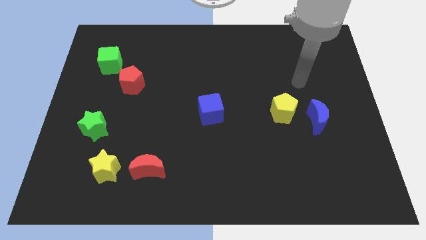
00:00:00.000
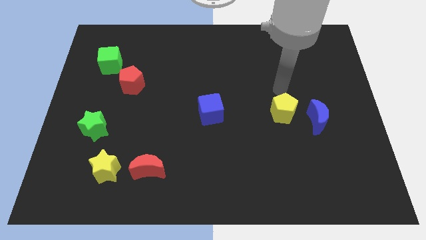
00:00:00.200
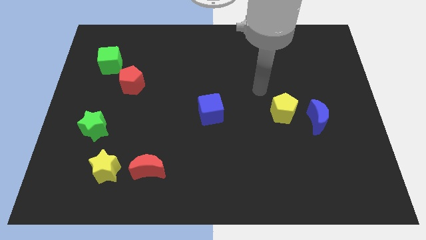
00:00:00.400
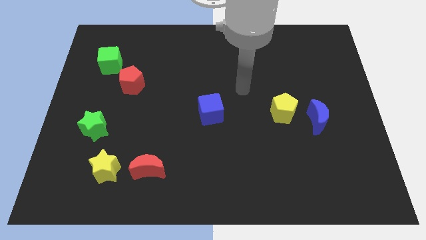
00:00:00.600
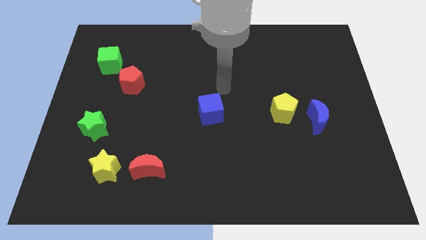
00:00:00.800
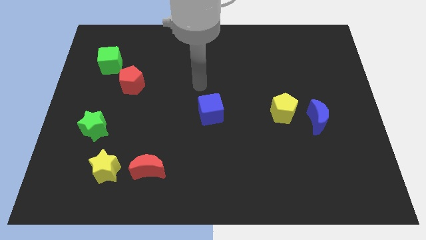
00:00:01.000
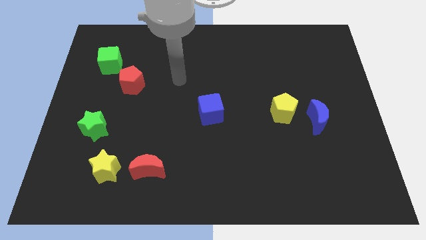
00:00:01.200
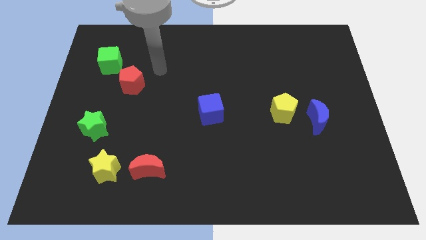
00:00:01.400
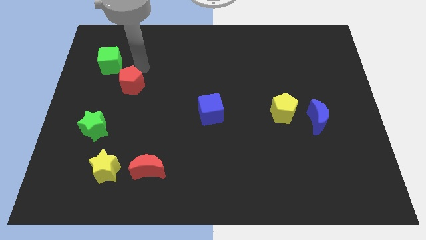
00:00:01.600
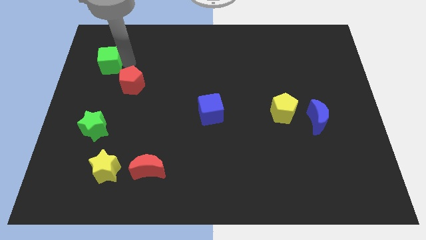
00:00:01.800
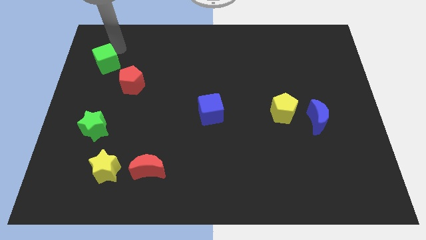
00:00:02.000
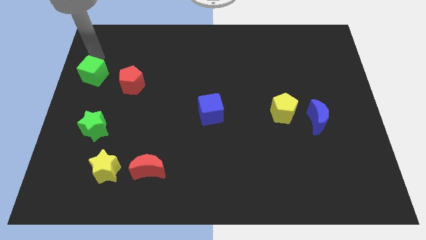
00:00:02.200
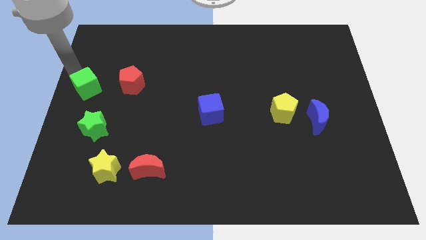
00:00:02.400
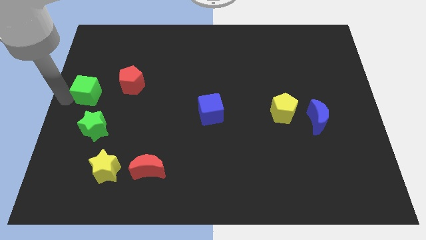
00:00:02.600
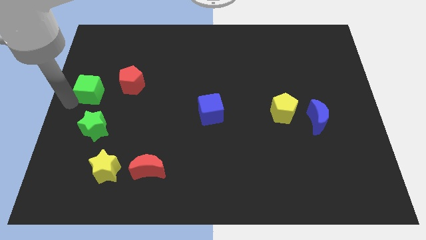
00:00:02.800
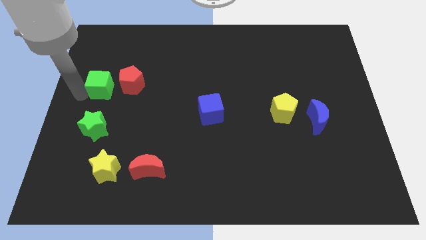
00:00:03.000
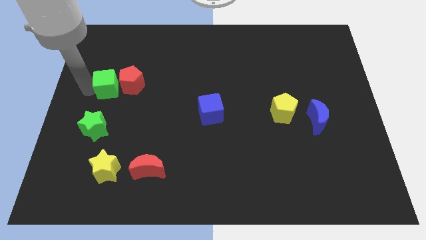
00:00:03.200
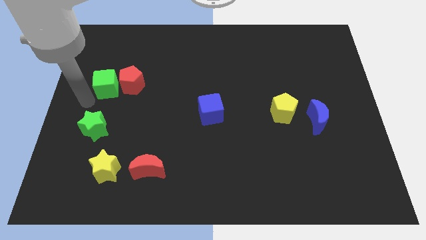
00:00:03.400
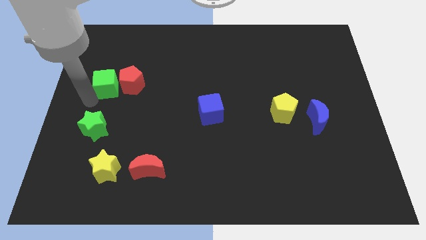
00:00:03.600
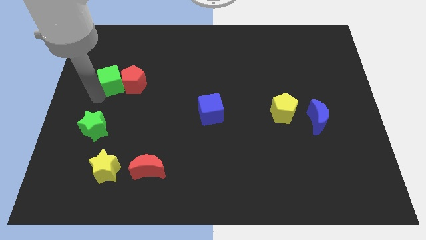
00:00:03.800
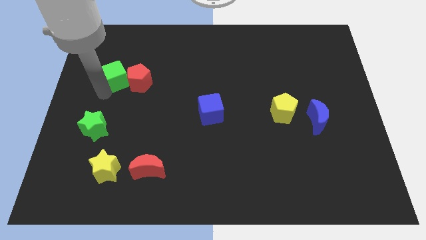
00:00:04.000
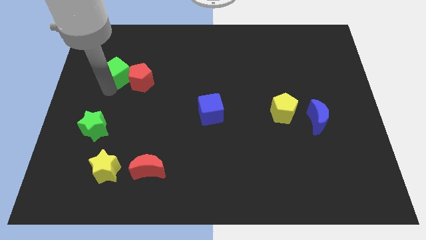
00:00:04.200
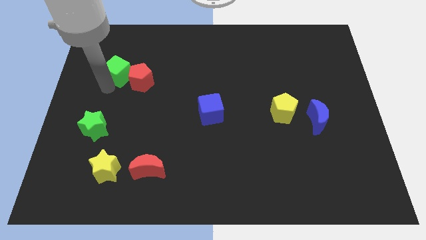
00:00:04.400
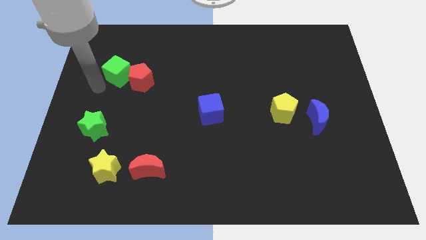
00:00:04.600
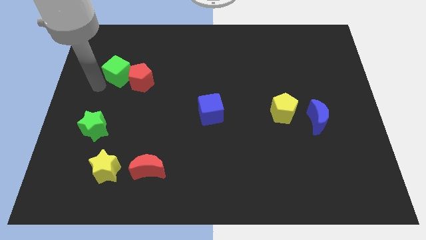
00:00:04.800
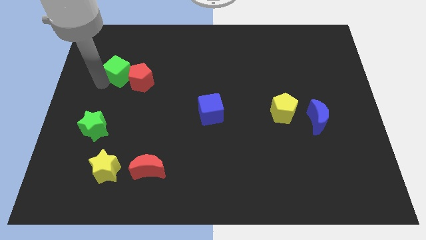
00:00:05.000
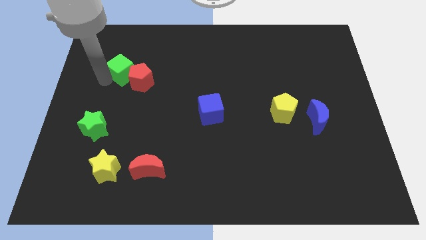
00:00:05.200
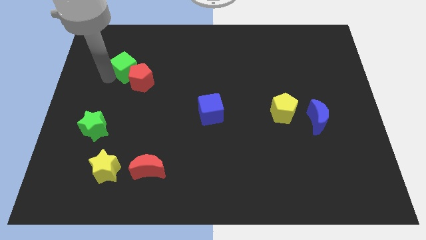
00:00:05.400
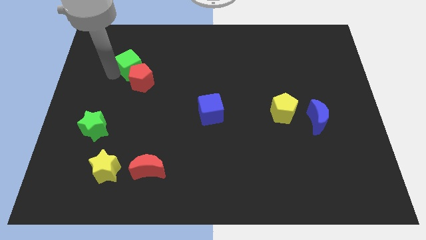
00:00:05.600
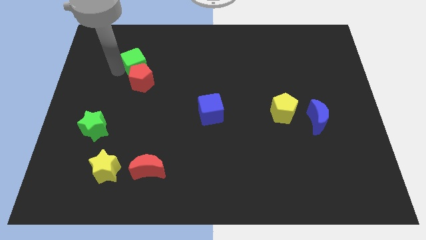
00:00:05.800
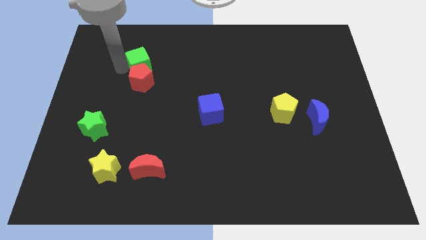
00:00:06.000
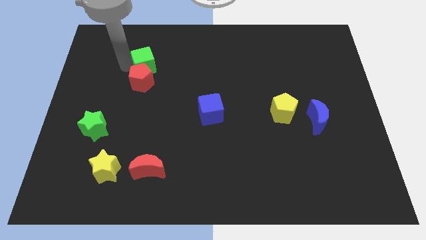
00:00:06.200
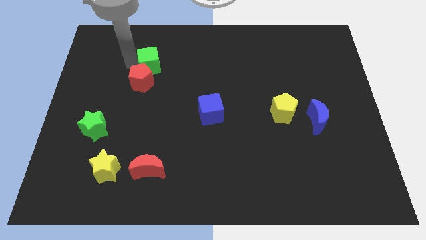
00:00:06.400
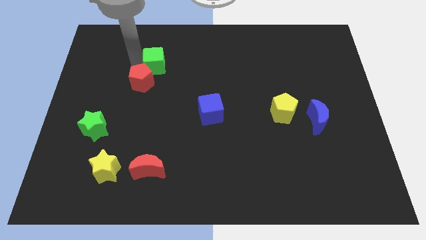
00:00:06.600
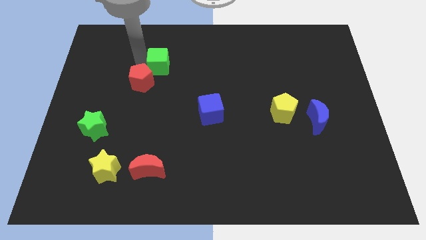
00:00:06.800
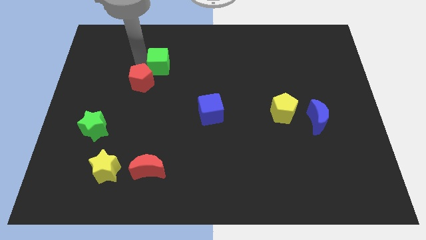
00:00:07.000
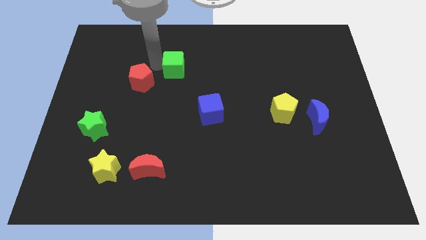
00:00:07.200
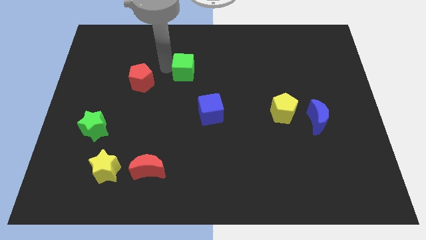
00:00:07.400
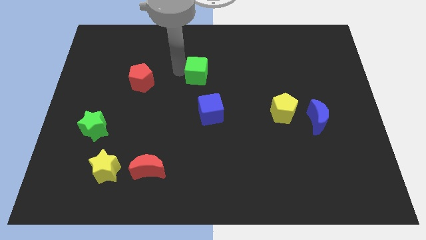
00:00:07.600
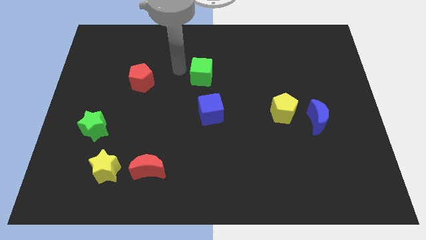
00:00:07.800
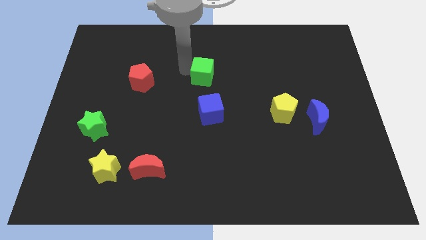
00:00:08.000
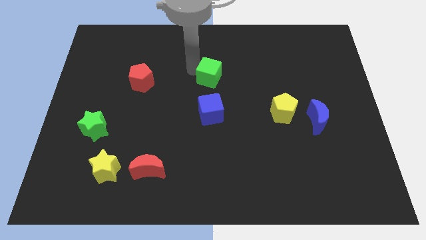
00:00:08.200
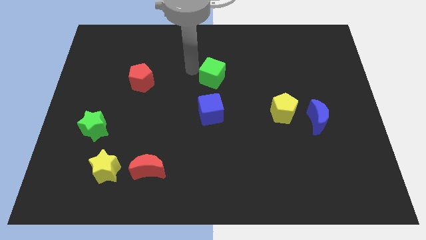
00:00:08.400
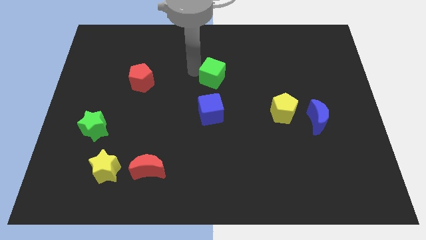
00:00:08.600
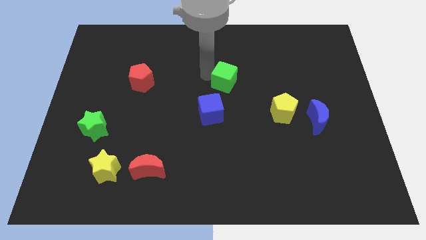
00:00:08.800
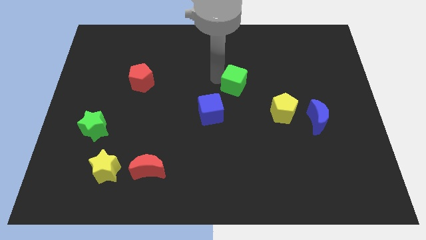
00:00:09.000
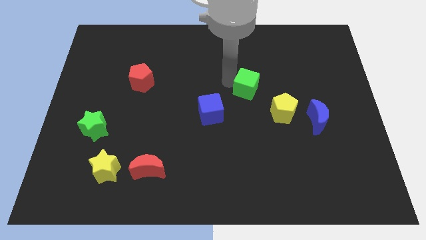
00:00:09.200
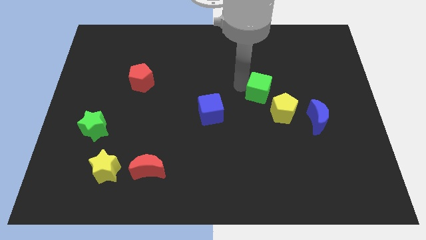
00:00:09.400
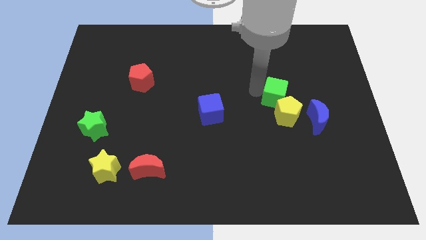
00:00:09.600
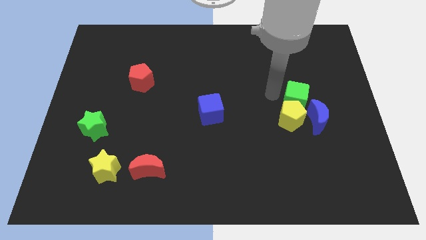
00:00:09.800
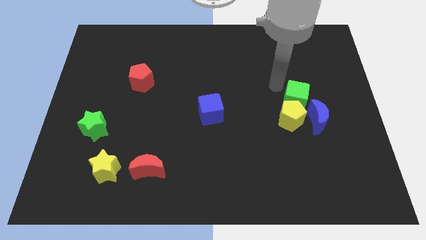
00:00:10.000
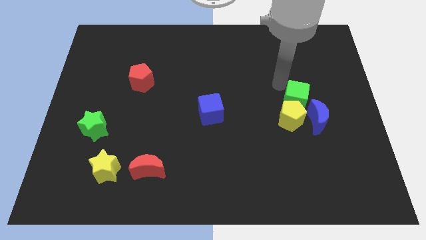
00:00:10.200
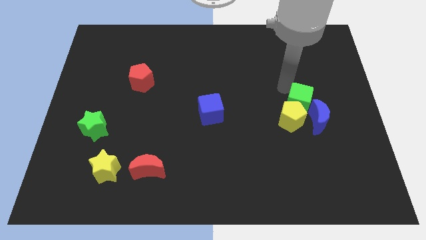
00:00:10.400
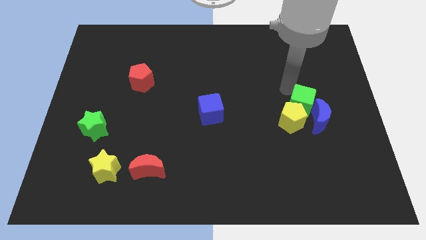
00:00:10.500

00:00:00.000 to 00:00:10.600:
move the green cube to the blue moon

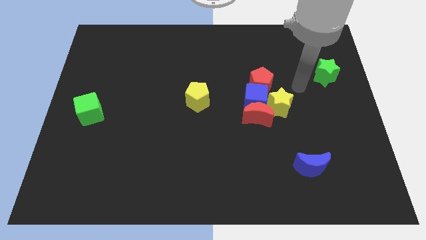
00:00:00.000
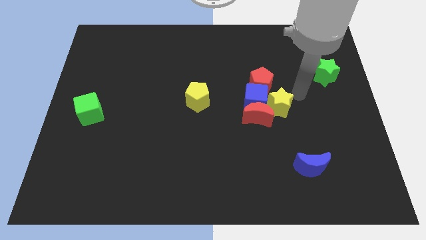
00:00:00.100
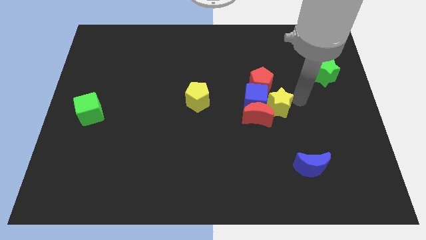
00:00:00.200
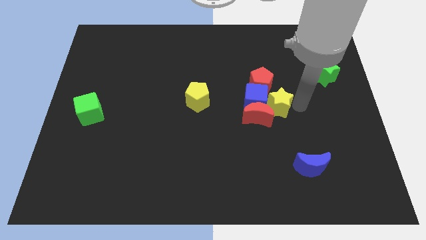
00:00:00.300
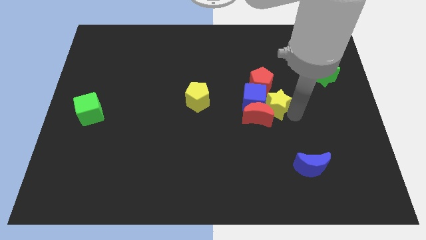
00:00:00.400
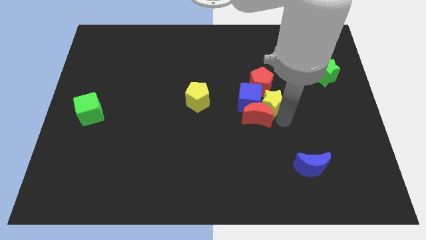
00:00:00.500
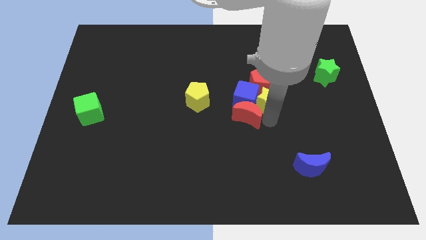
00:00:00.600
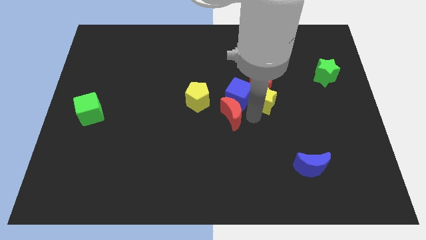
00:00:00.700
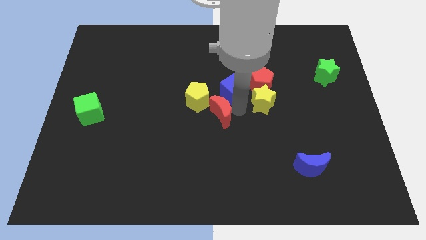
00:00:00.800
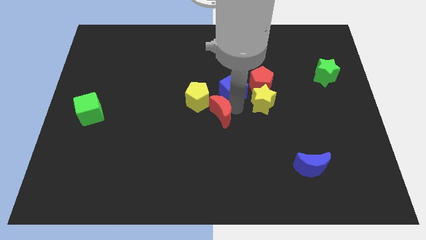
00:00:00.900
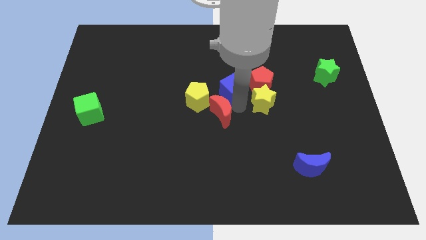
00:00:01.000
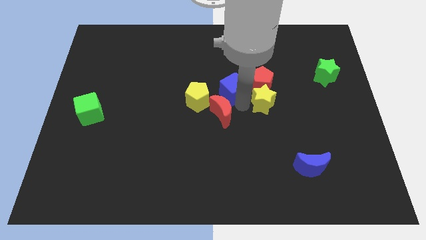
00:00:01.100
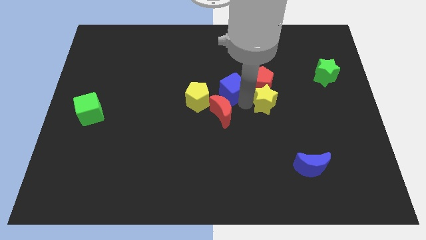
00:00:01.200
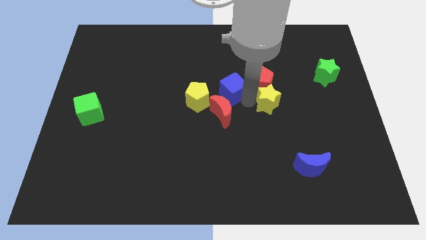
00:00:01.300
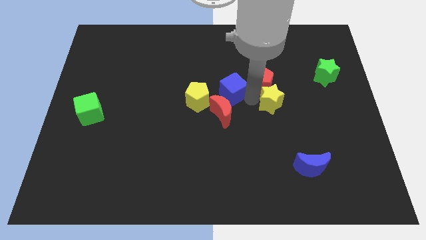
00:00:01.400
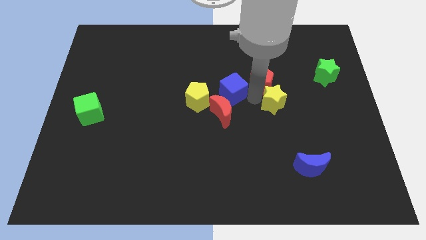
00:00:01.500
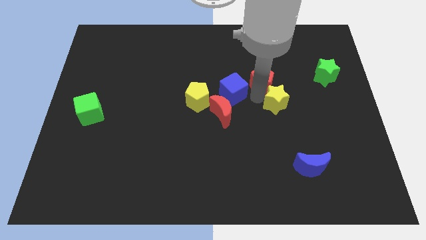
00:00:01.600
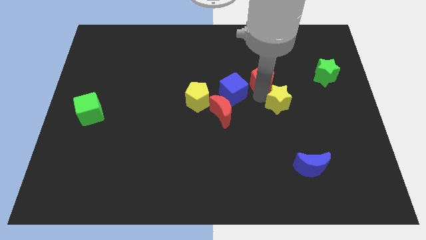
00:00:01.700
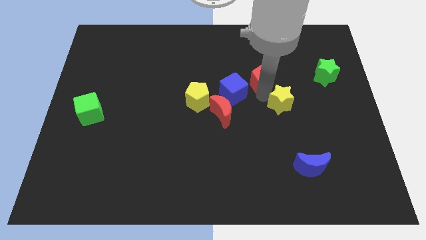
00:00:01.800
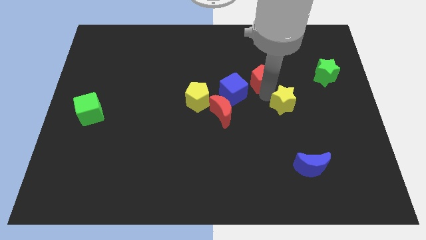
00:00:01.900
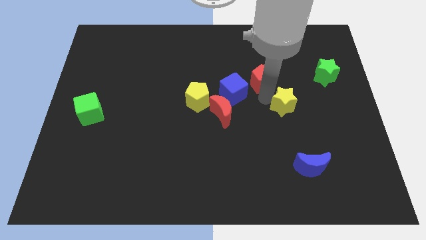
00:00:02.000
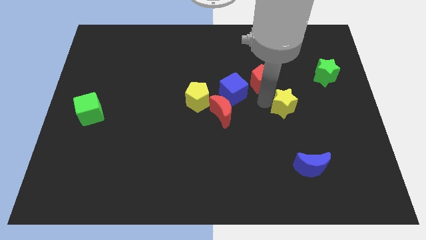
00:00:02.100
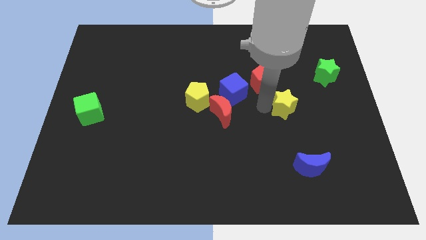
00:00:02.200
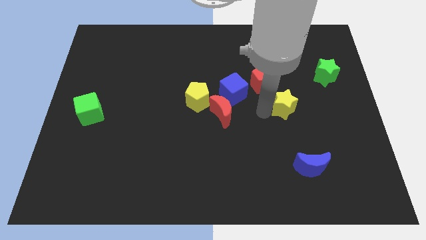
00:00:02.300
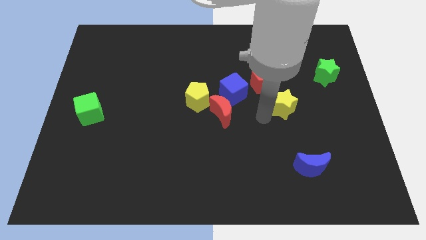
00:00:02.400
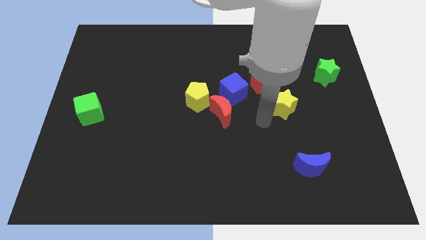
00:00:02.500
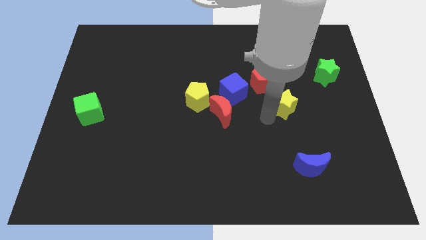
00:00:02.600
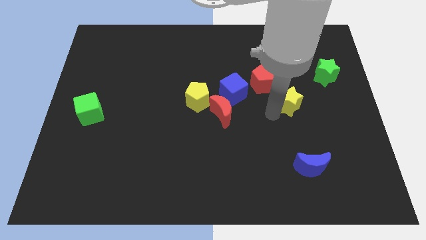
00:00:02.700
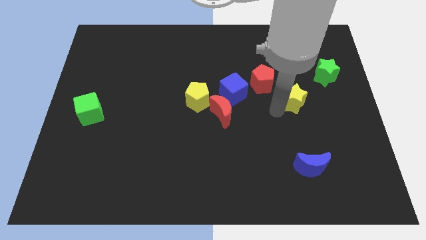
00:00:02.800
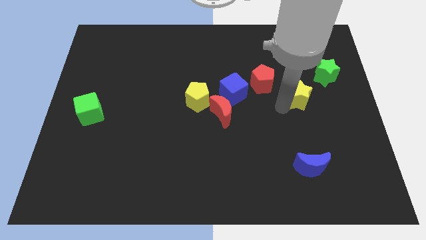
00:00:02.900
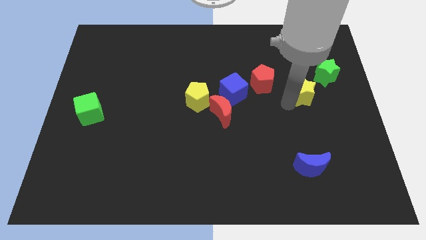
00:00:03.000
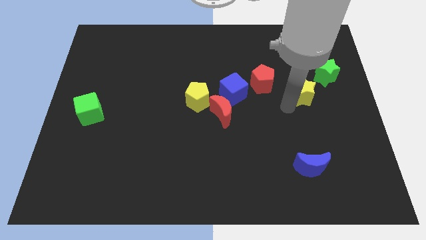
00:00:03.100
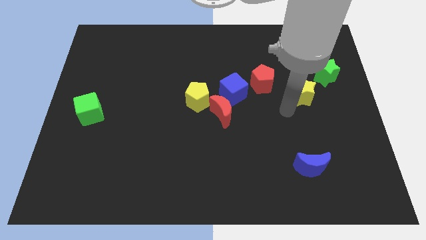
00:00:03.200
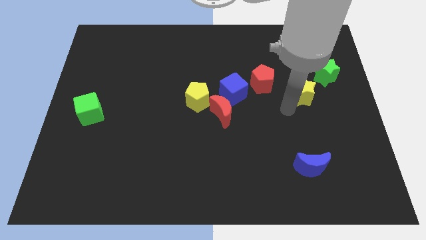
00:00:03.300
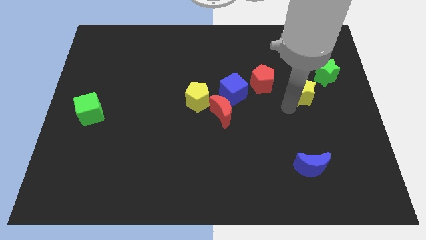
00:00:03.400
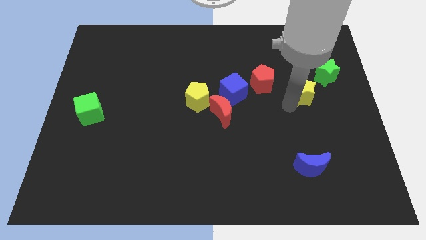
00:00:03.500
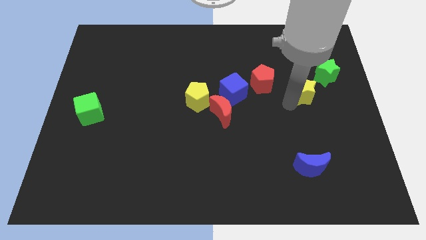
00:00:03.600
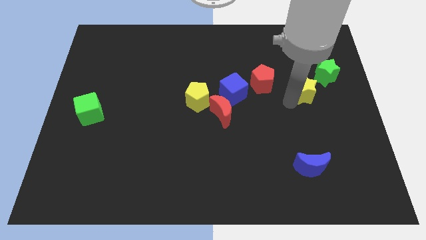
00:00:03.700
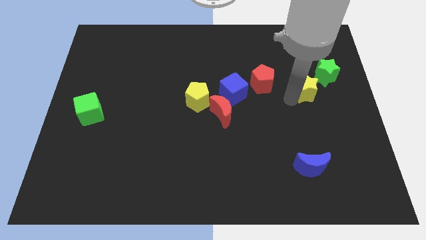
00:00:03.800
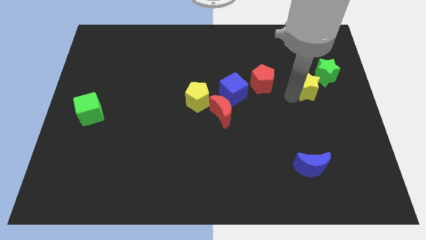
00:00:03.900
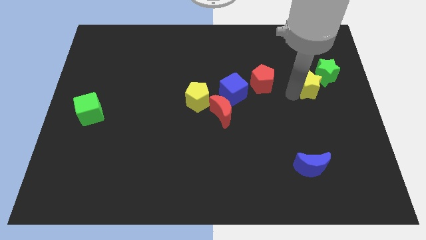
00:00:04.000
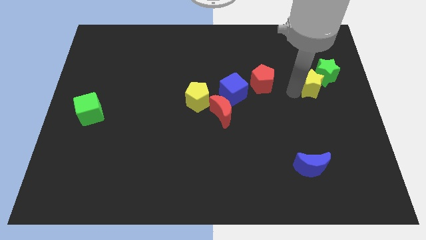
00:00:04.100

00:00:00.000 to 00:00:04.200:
put the yellow star towards the green star
